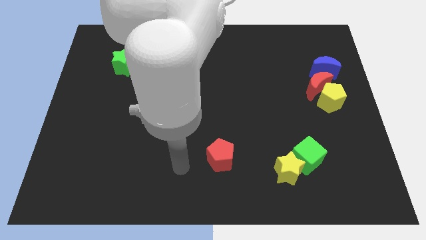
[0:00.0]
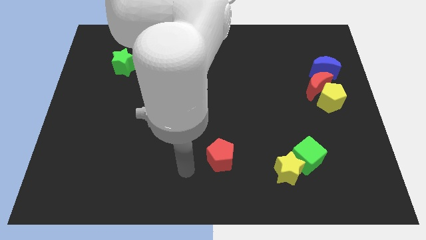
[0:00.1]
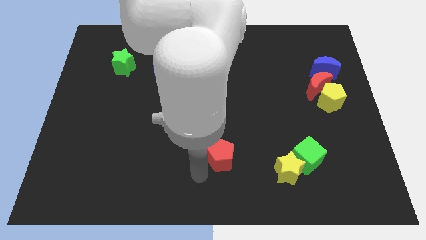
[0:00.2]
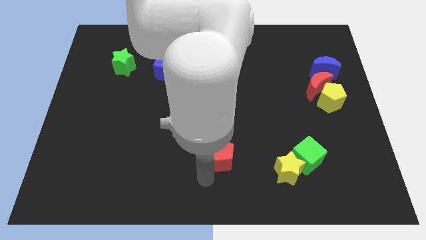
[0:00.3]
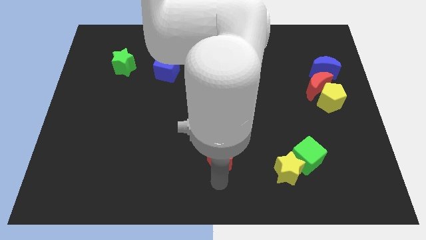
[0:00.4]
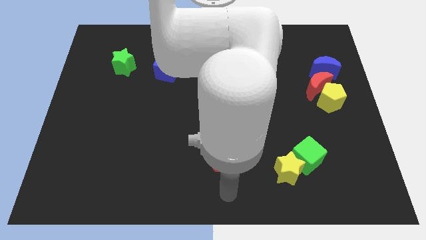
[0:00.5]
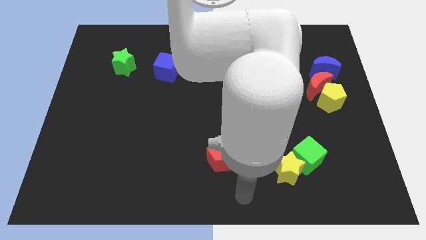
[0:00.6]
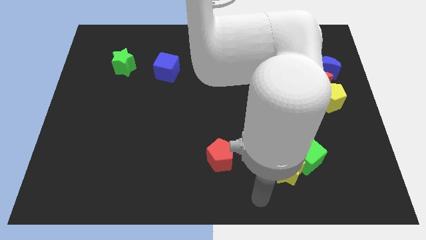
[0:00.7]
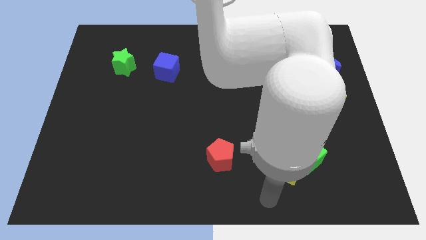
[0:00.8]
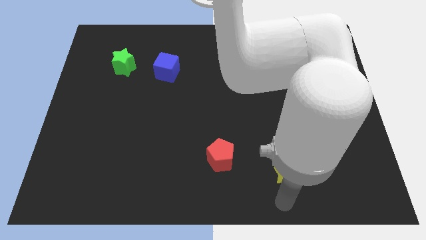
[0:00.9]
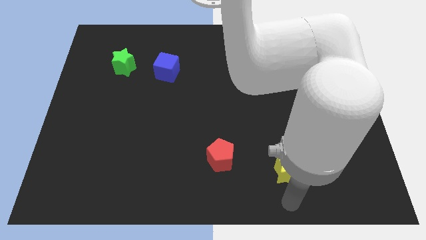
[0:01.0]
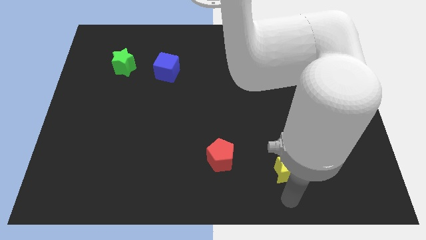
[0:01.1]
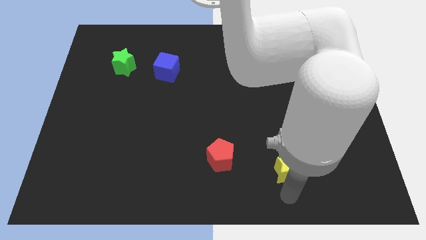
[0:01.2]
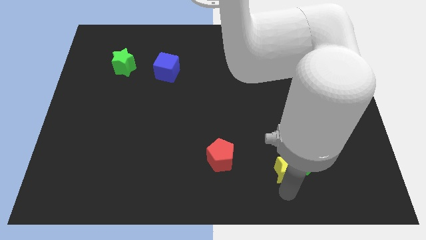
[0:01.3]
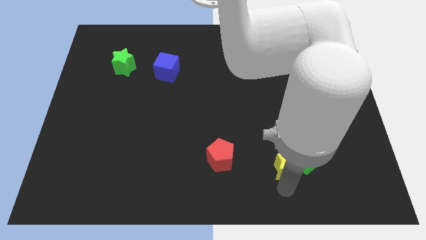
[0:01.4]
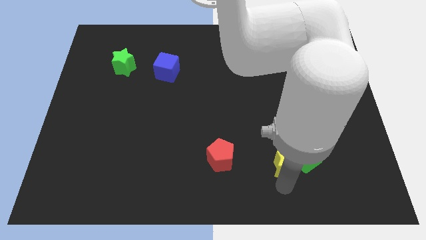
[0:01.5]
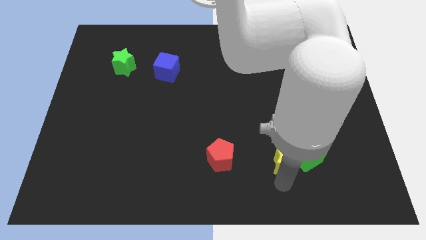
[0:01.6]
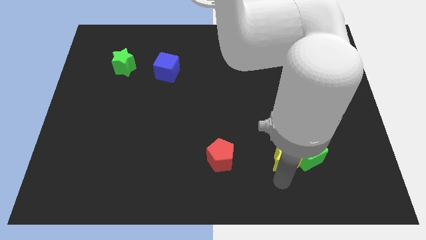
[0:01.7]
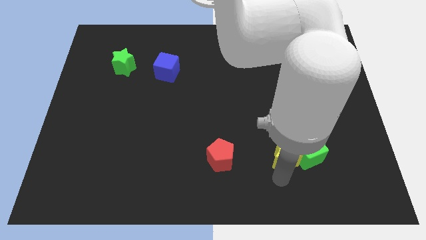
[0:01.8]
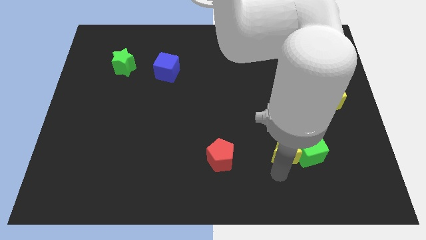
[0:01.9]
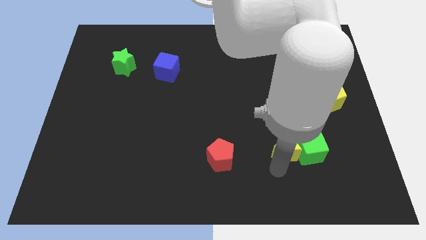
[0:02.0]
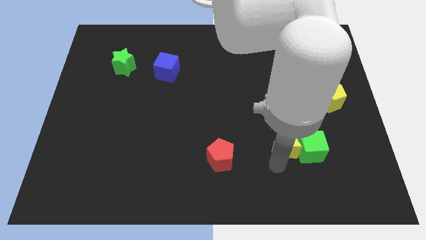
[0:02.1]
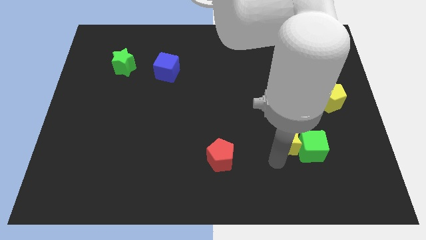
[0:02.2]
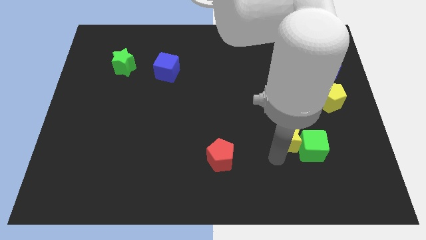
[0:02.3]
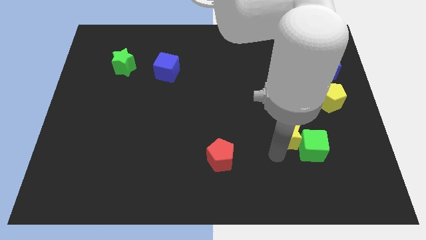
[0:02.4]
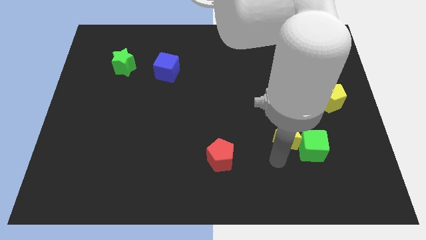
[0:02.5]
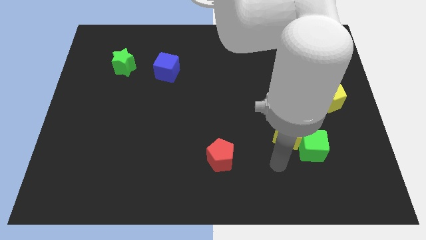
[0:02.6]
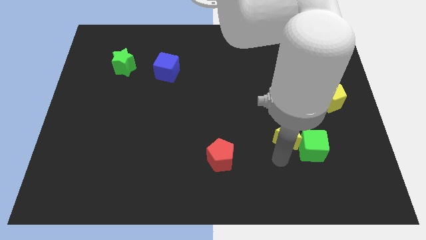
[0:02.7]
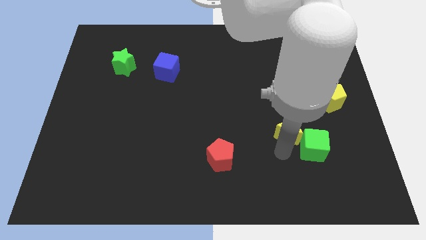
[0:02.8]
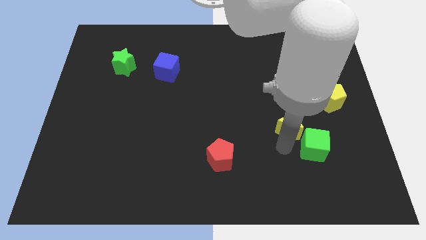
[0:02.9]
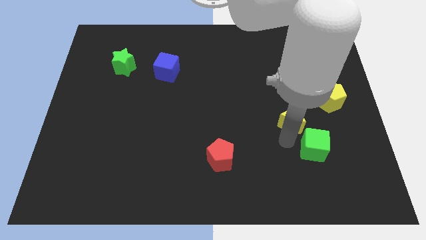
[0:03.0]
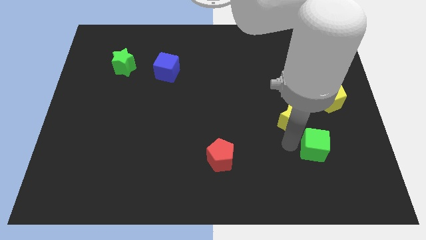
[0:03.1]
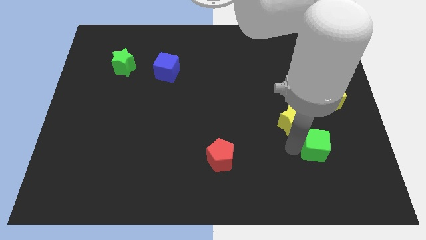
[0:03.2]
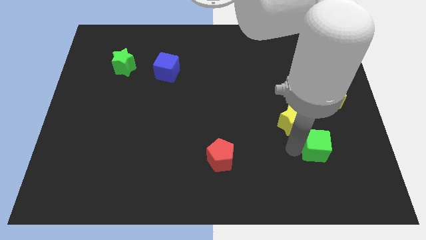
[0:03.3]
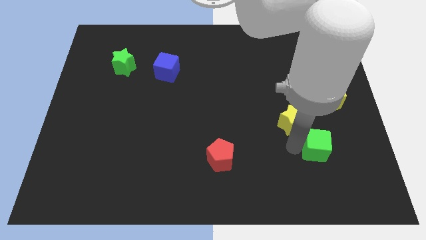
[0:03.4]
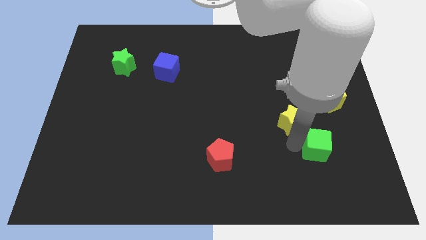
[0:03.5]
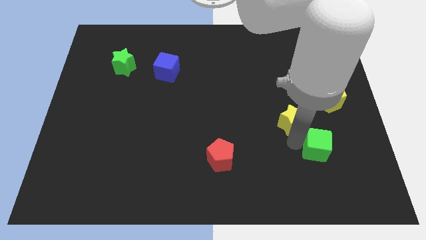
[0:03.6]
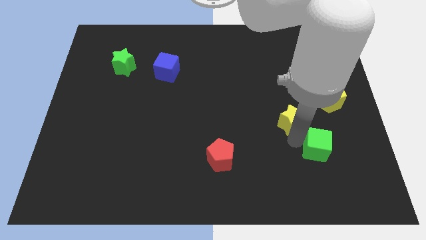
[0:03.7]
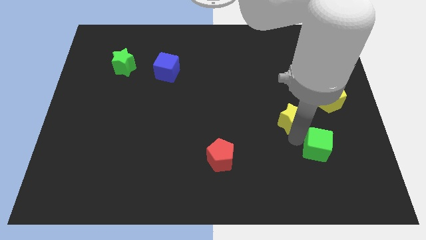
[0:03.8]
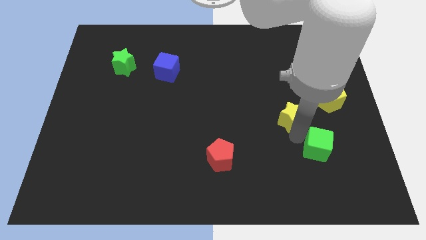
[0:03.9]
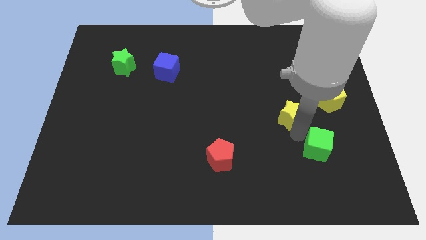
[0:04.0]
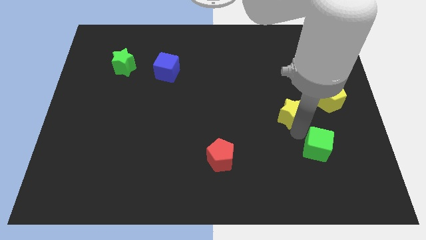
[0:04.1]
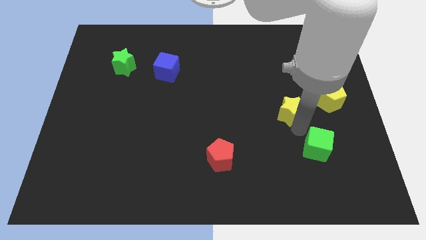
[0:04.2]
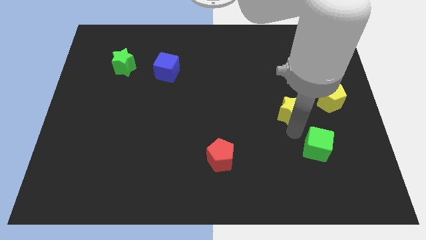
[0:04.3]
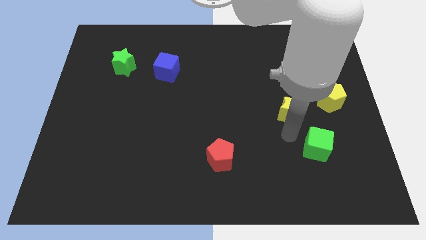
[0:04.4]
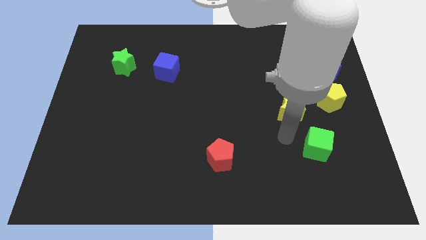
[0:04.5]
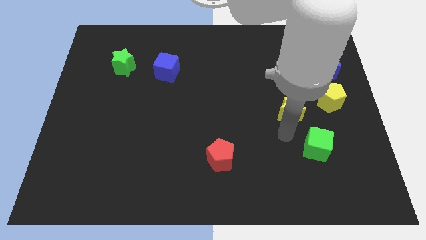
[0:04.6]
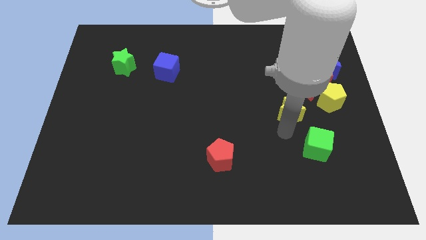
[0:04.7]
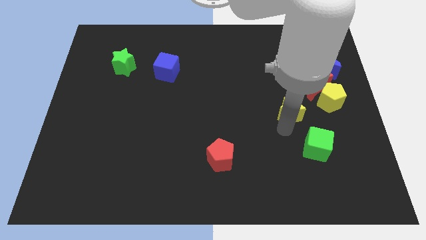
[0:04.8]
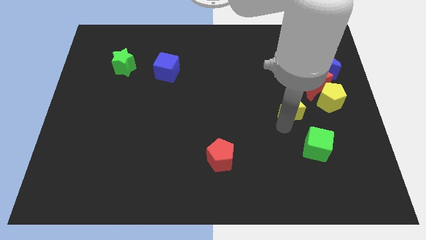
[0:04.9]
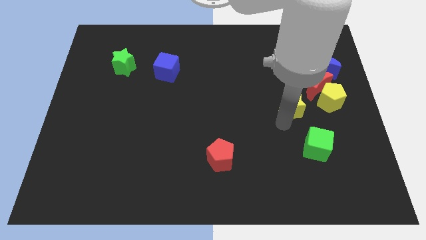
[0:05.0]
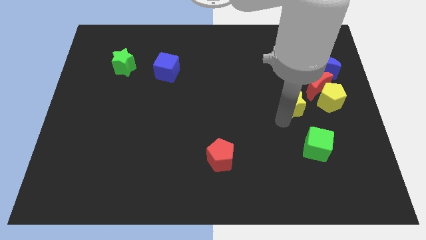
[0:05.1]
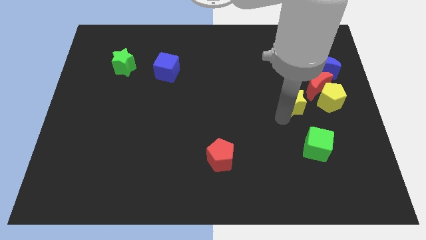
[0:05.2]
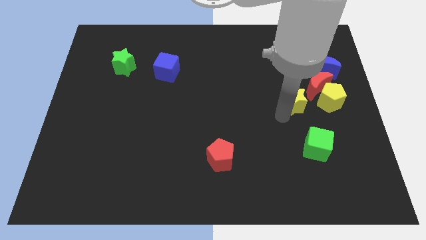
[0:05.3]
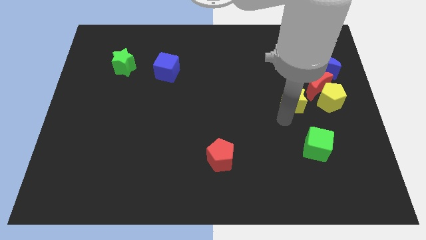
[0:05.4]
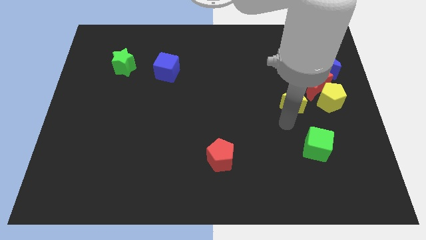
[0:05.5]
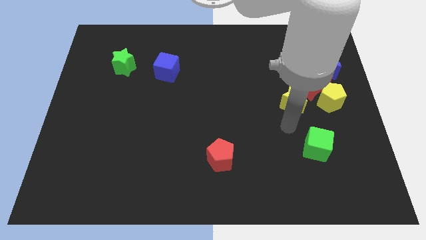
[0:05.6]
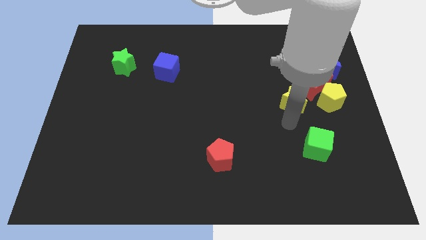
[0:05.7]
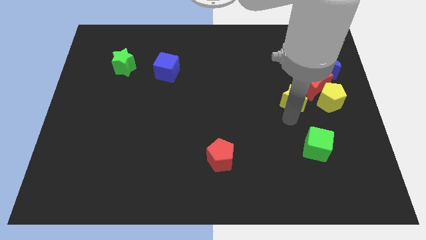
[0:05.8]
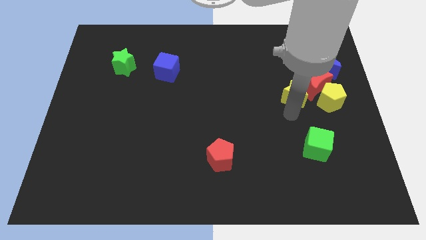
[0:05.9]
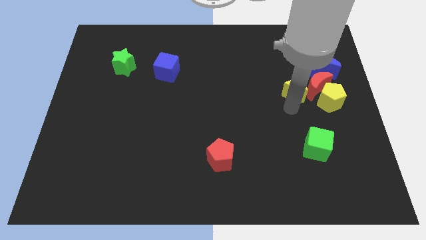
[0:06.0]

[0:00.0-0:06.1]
move the yellow star diagonally up and to the left of the yellow pentagon
